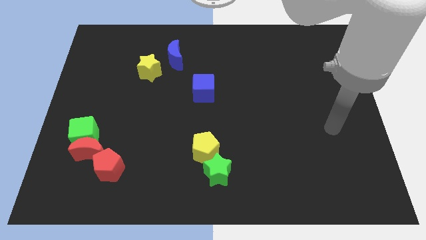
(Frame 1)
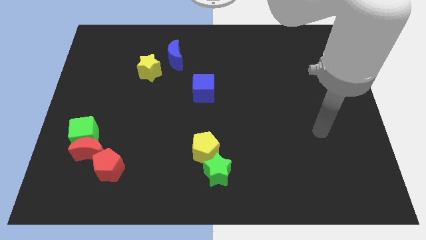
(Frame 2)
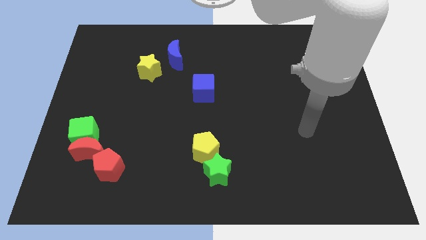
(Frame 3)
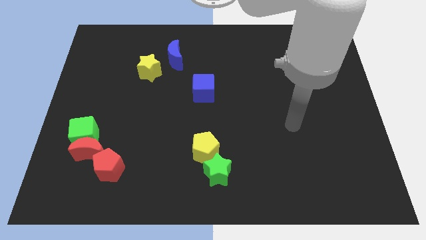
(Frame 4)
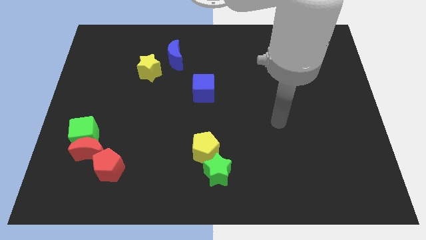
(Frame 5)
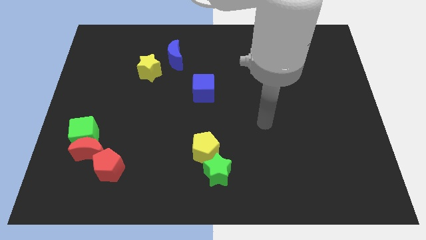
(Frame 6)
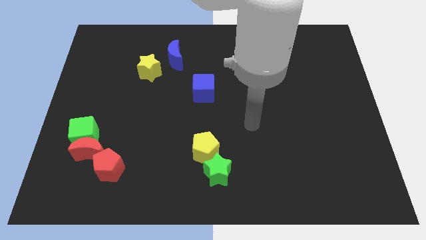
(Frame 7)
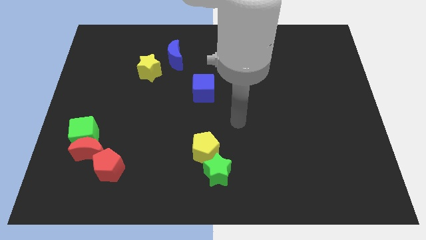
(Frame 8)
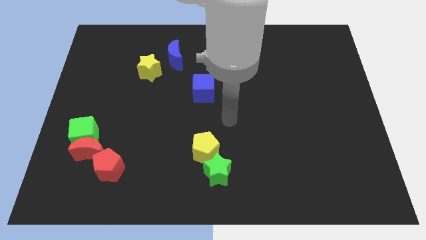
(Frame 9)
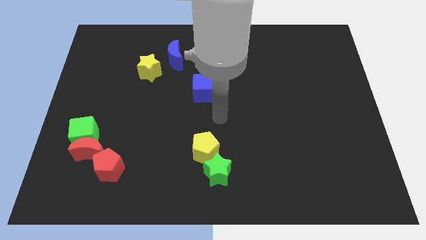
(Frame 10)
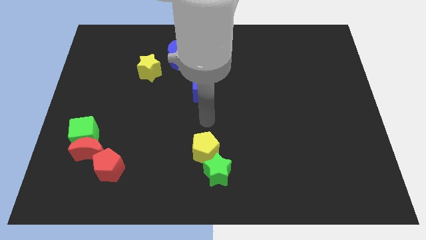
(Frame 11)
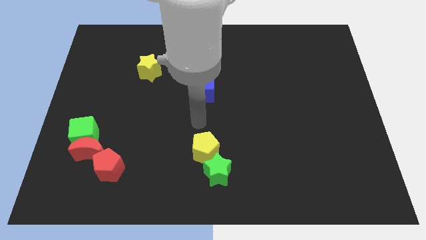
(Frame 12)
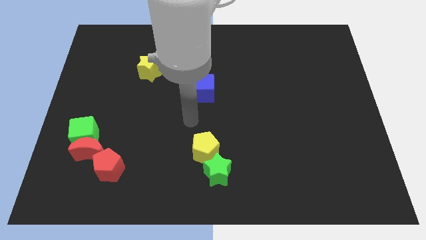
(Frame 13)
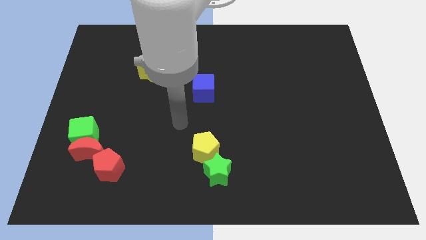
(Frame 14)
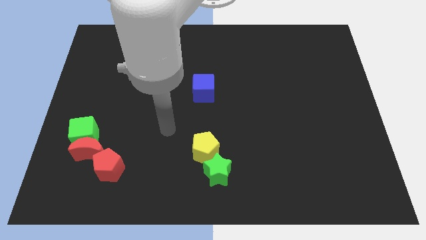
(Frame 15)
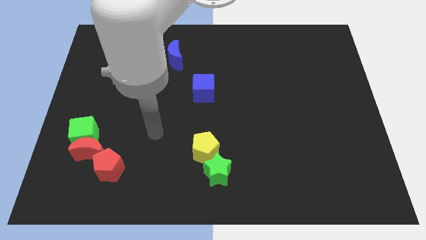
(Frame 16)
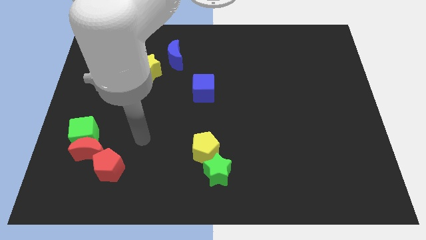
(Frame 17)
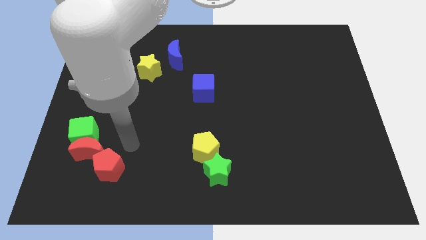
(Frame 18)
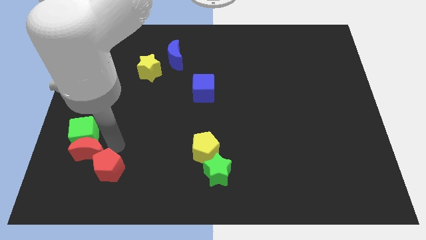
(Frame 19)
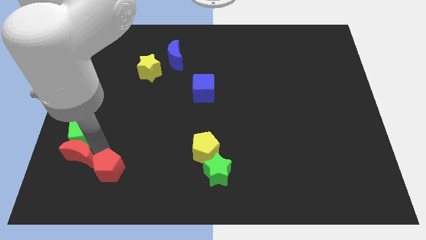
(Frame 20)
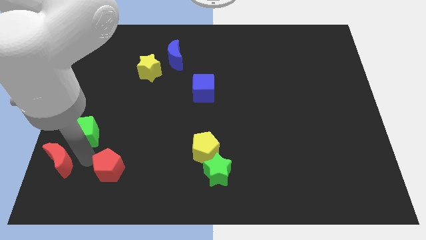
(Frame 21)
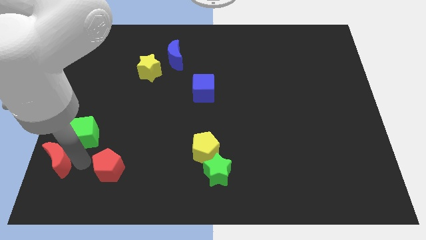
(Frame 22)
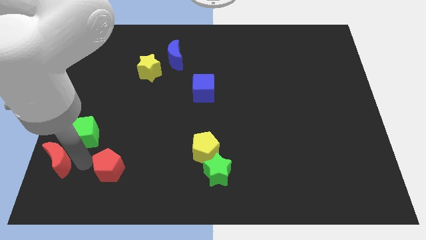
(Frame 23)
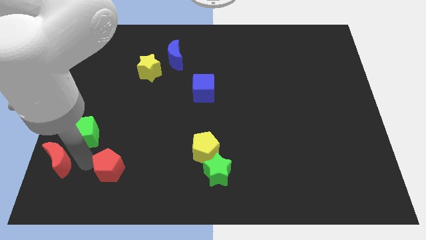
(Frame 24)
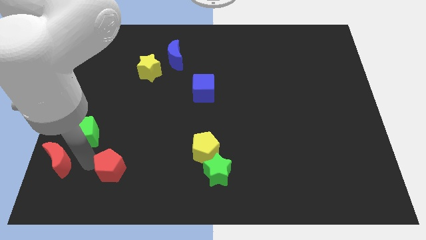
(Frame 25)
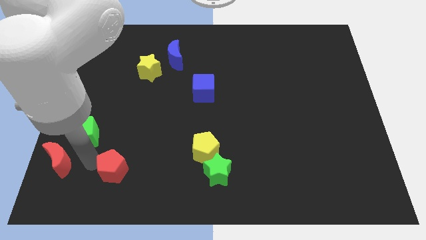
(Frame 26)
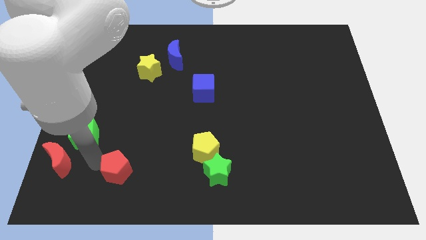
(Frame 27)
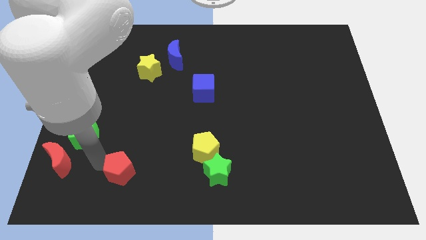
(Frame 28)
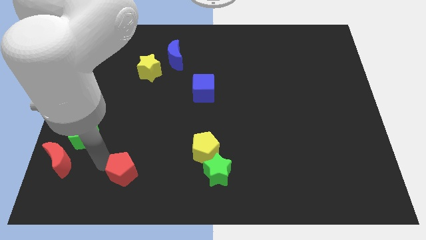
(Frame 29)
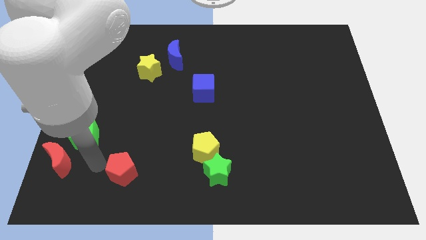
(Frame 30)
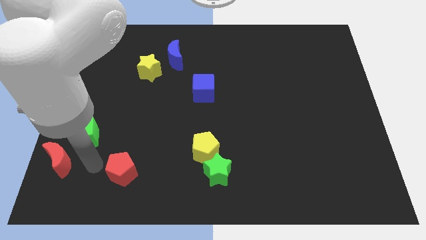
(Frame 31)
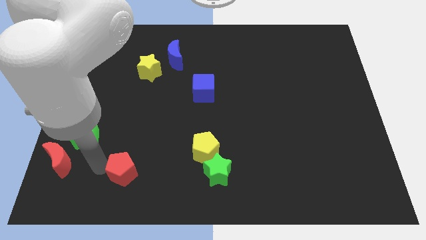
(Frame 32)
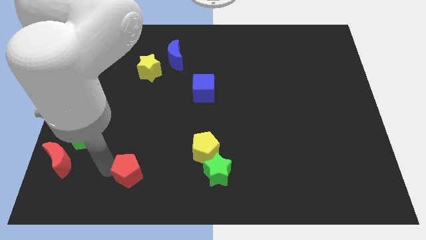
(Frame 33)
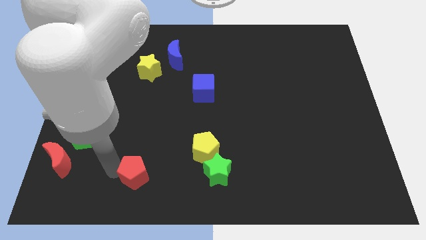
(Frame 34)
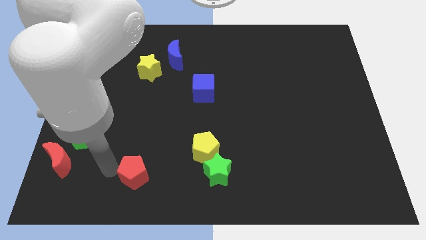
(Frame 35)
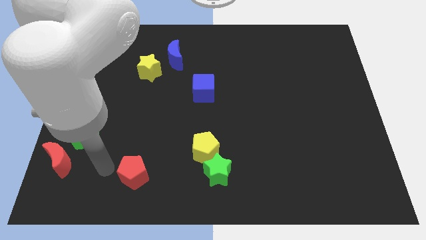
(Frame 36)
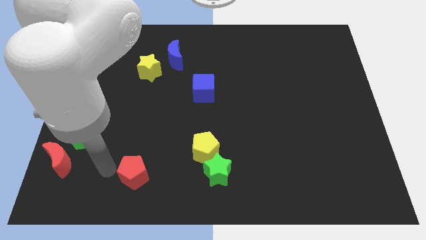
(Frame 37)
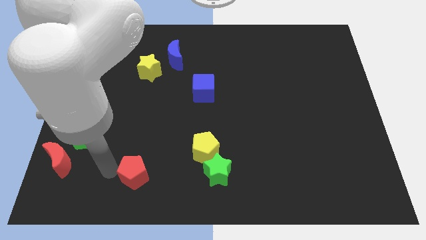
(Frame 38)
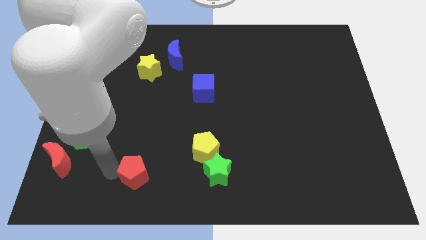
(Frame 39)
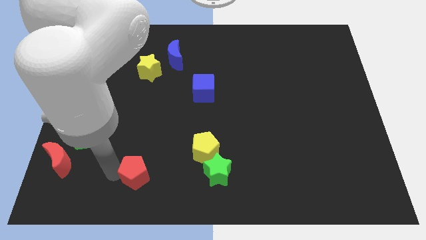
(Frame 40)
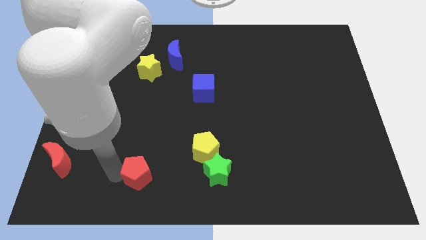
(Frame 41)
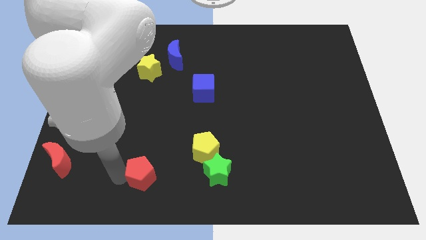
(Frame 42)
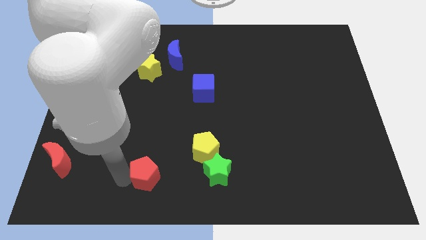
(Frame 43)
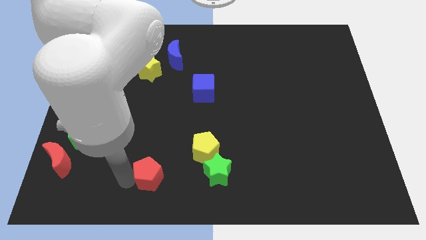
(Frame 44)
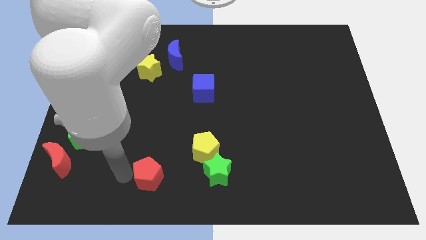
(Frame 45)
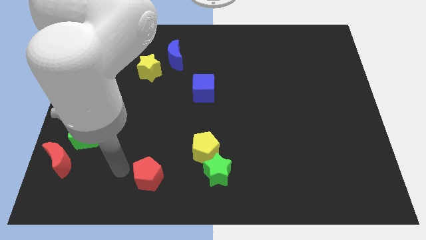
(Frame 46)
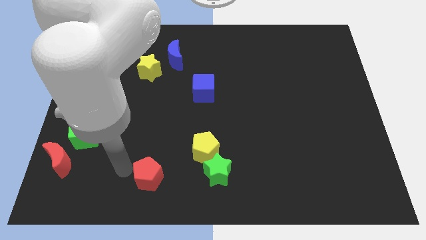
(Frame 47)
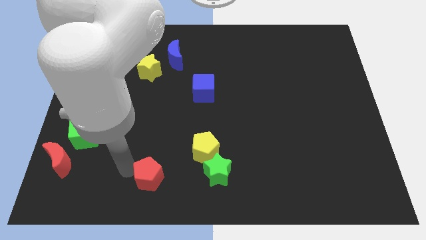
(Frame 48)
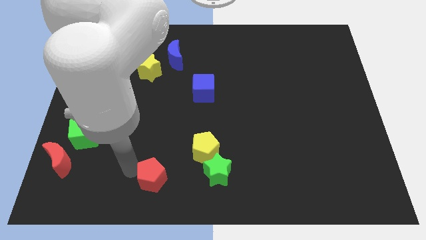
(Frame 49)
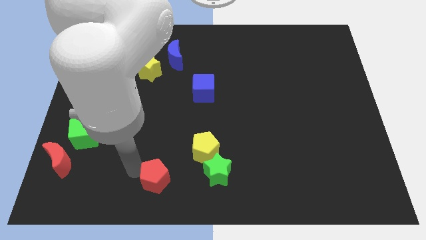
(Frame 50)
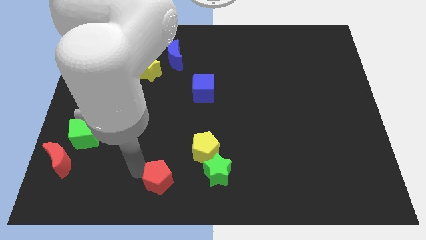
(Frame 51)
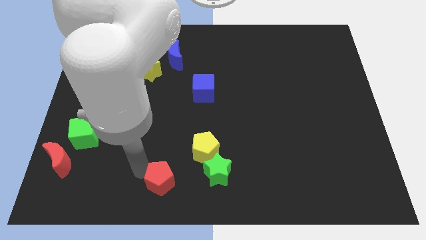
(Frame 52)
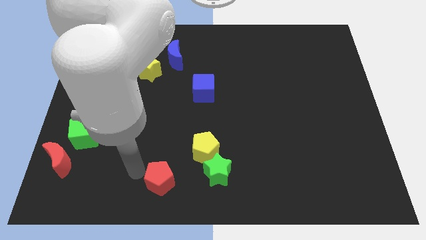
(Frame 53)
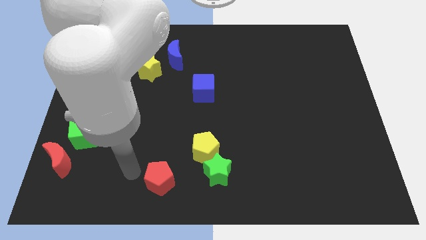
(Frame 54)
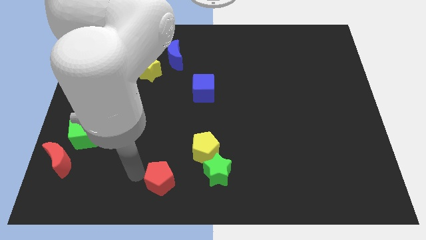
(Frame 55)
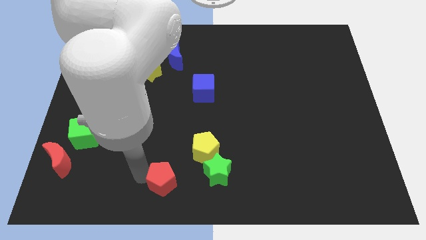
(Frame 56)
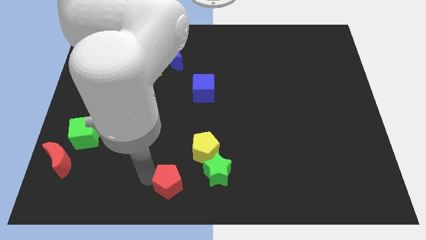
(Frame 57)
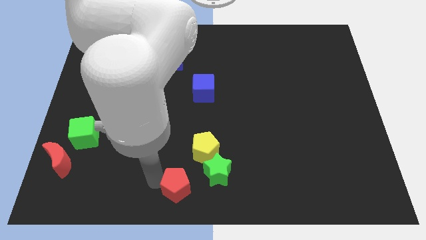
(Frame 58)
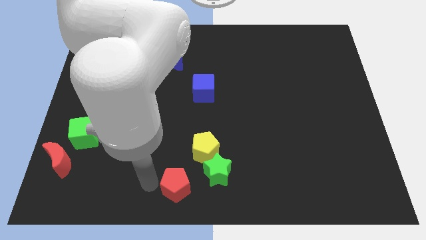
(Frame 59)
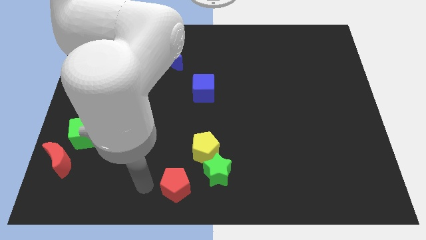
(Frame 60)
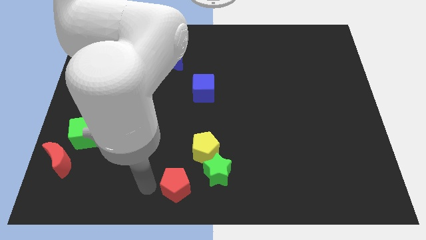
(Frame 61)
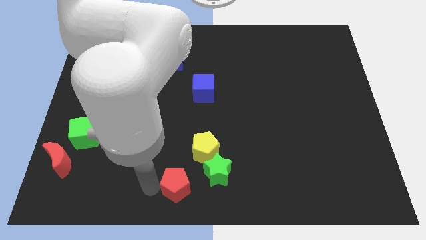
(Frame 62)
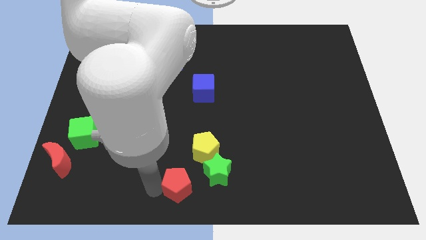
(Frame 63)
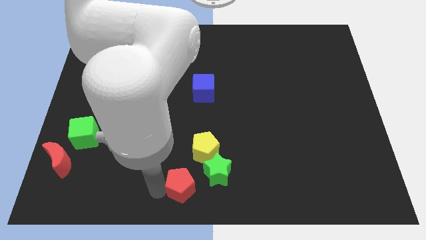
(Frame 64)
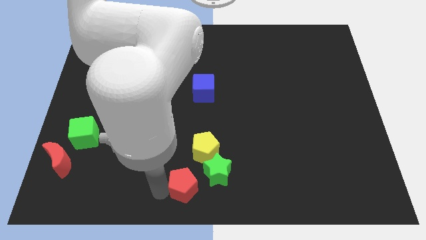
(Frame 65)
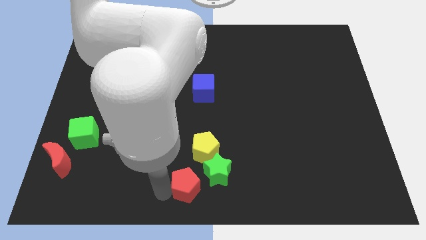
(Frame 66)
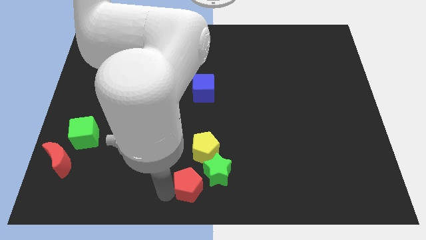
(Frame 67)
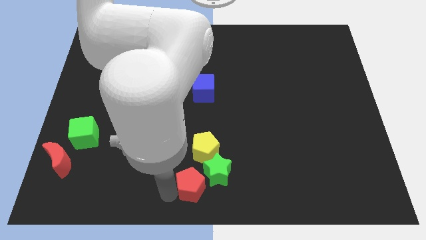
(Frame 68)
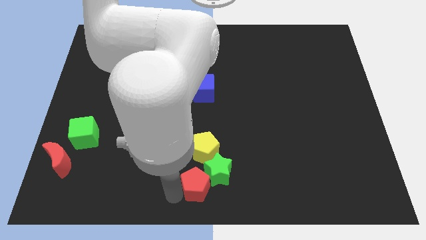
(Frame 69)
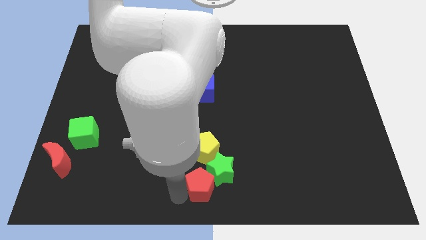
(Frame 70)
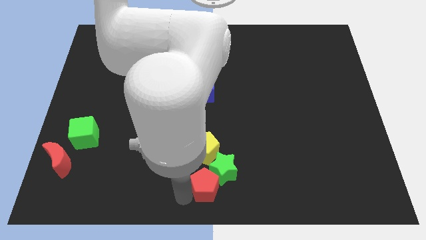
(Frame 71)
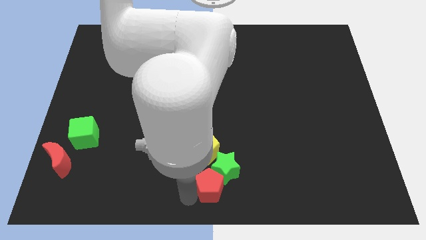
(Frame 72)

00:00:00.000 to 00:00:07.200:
move the red pentagon to the right

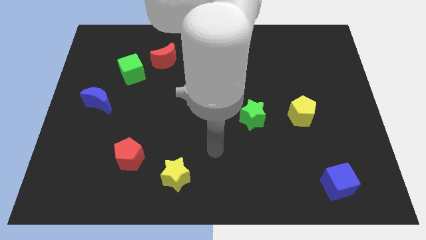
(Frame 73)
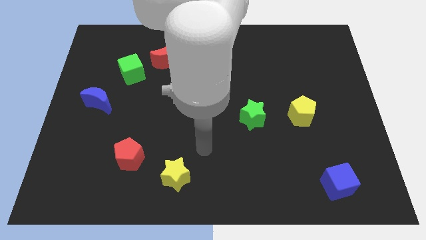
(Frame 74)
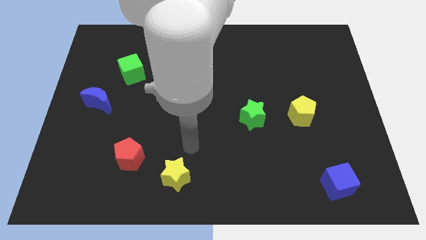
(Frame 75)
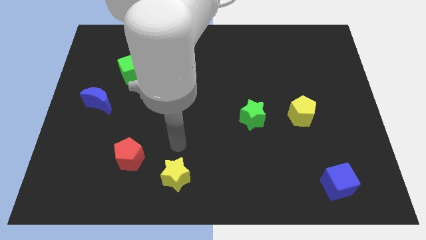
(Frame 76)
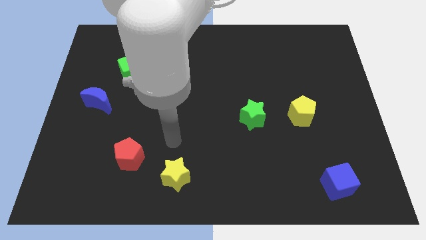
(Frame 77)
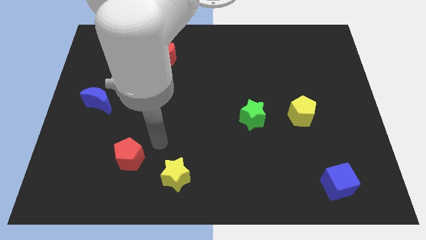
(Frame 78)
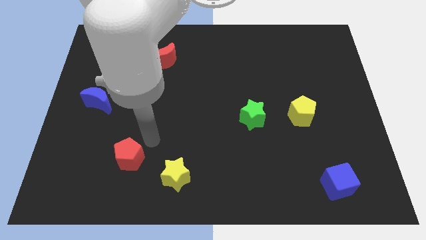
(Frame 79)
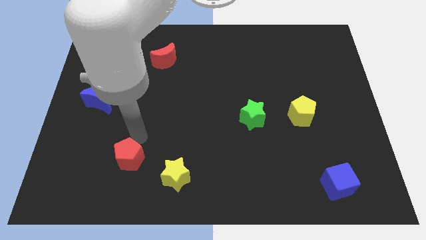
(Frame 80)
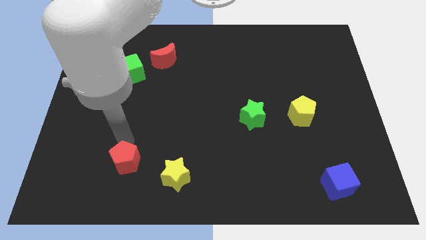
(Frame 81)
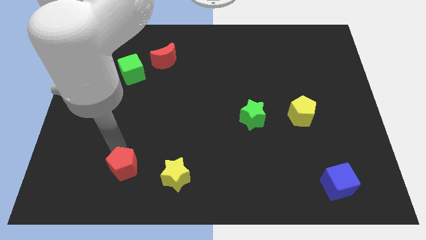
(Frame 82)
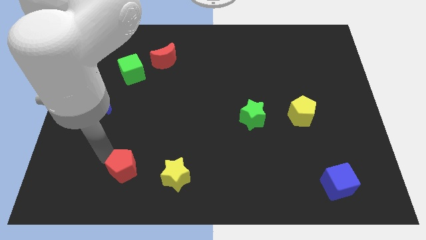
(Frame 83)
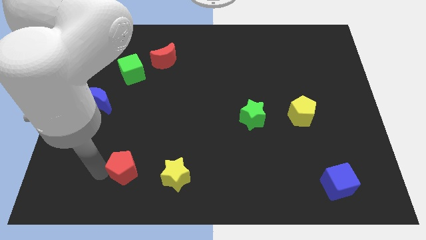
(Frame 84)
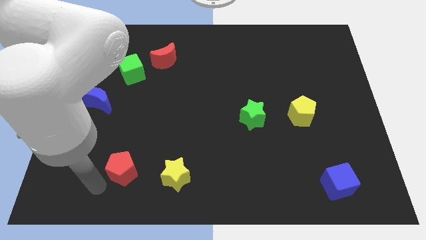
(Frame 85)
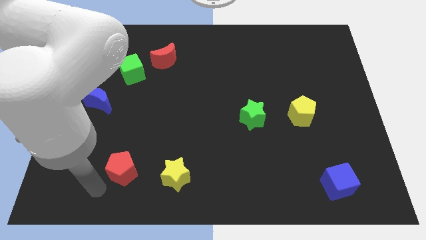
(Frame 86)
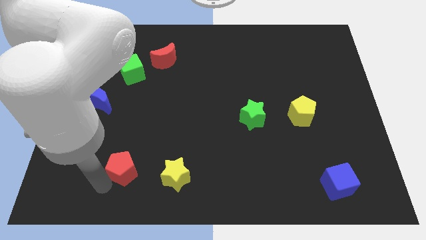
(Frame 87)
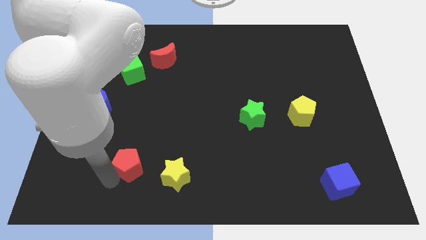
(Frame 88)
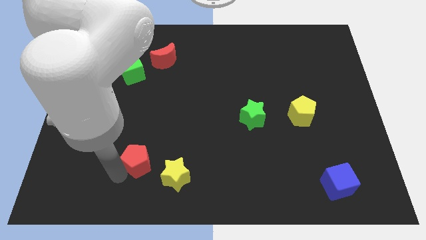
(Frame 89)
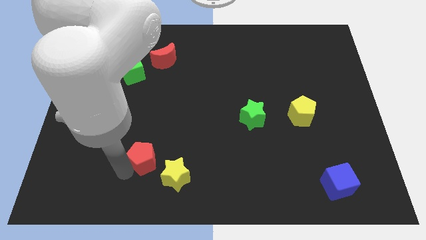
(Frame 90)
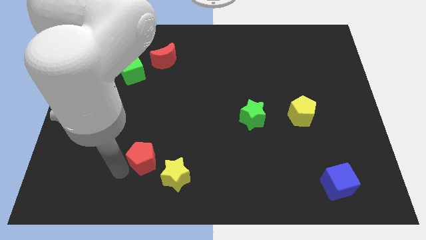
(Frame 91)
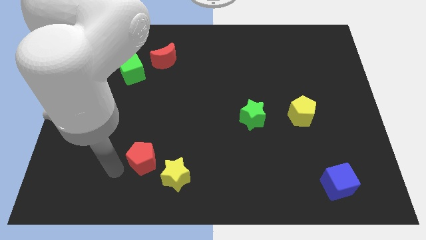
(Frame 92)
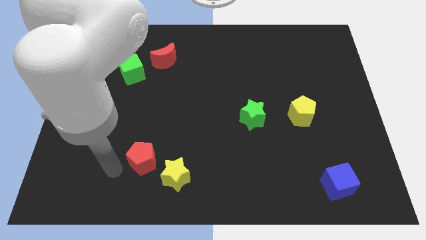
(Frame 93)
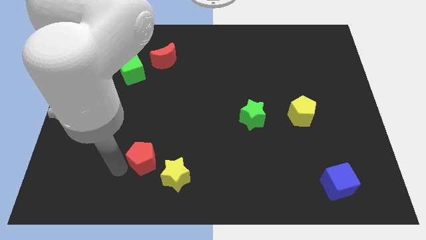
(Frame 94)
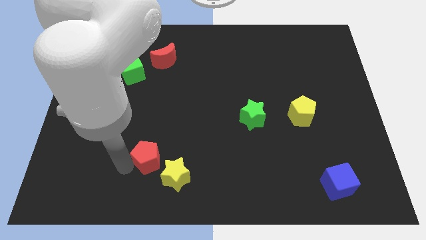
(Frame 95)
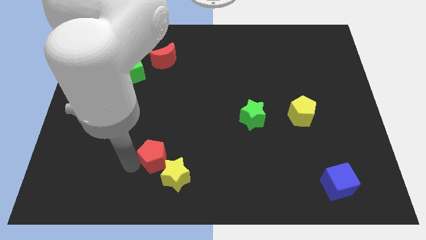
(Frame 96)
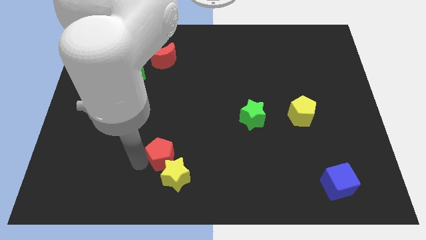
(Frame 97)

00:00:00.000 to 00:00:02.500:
slide the red pentagon right a little
